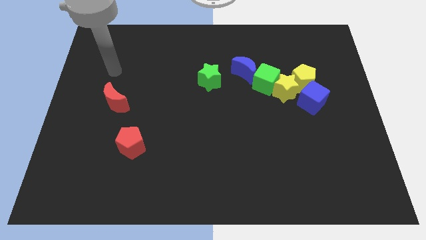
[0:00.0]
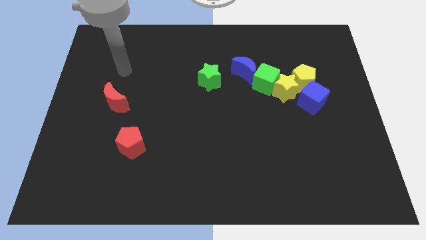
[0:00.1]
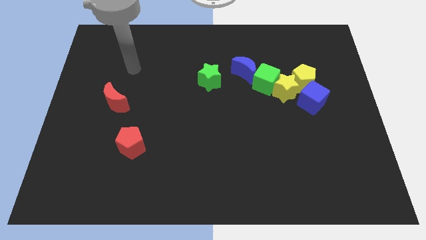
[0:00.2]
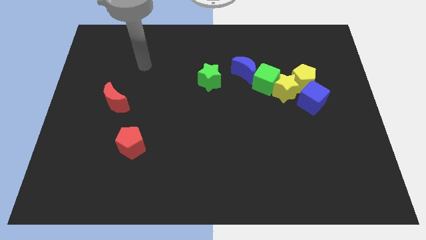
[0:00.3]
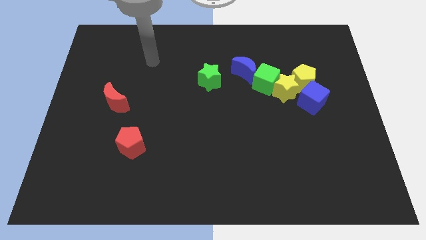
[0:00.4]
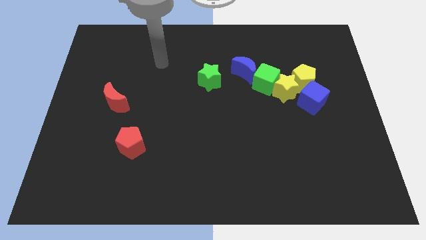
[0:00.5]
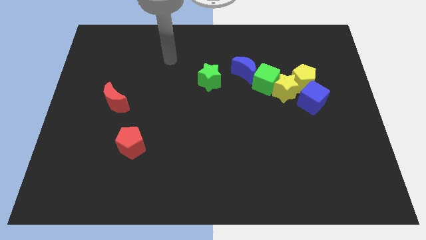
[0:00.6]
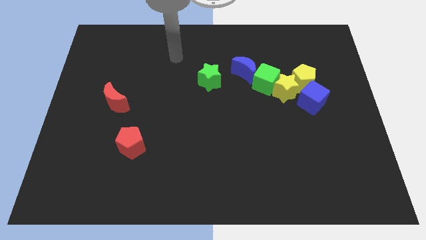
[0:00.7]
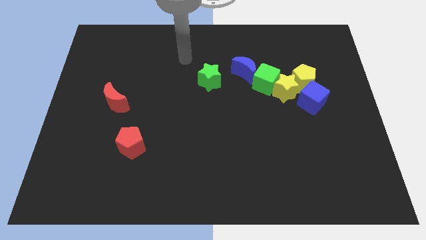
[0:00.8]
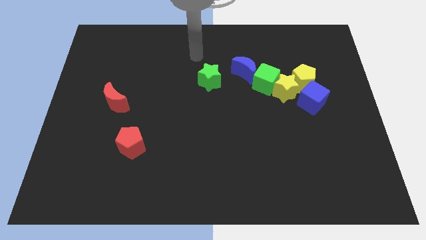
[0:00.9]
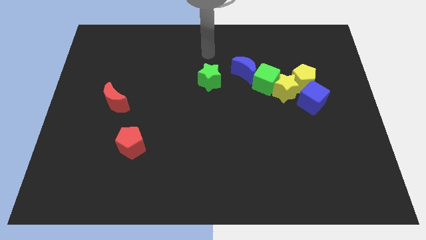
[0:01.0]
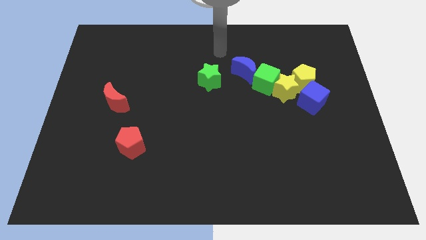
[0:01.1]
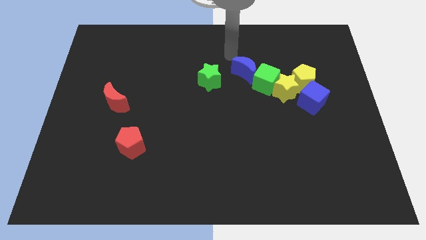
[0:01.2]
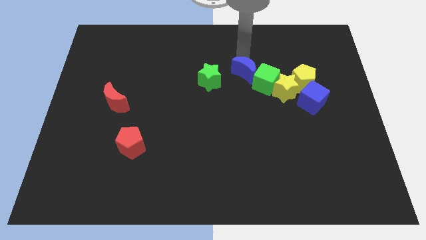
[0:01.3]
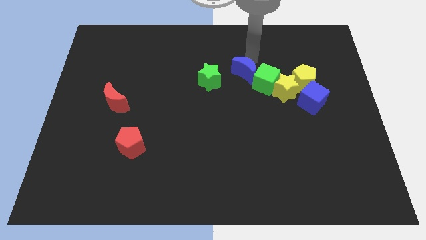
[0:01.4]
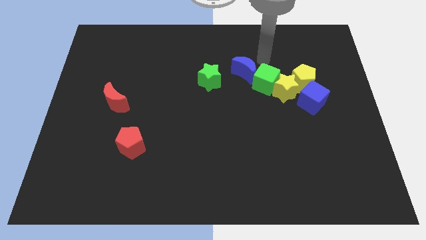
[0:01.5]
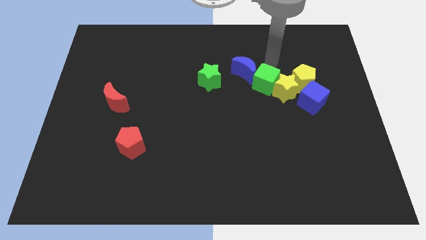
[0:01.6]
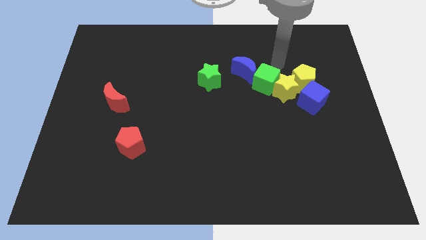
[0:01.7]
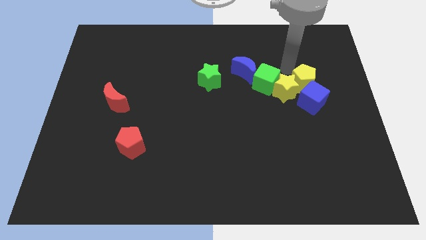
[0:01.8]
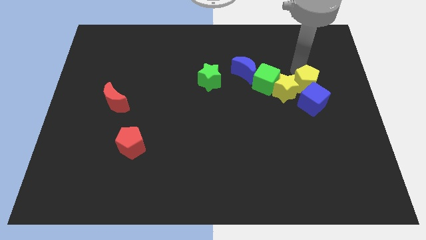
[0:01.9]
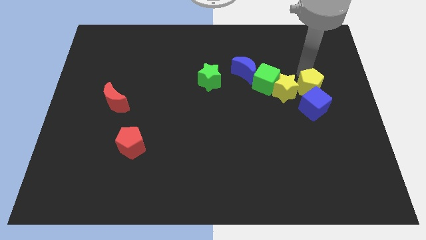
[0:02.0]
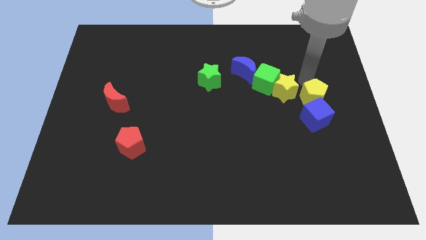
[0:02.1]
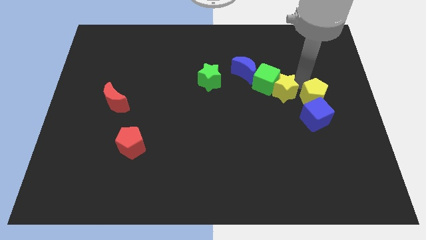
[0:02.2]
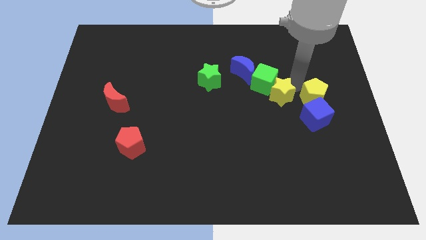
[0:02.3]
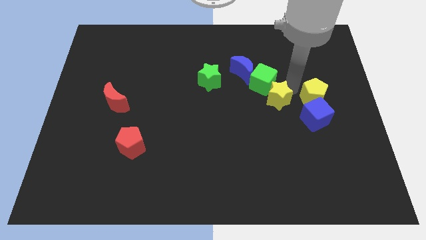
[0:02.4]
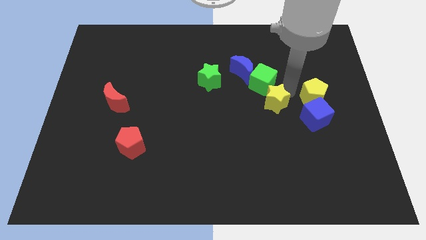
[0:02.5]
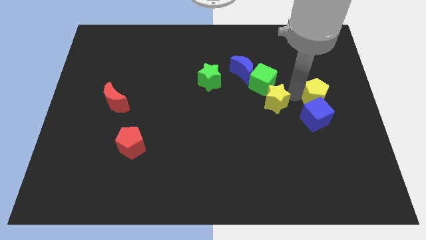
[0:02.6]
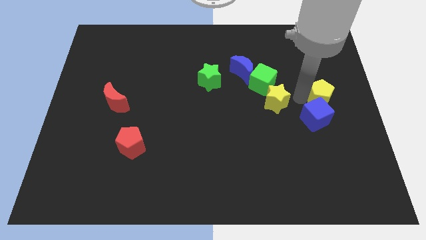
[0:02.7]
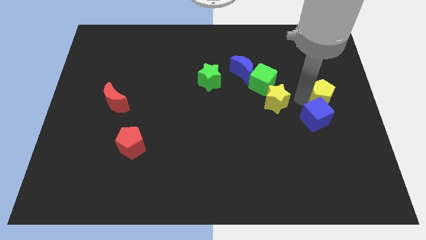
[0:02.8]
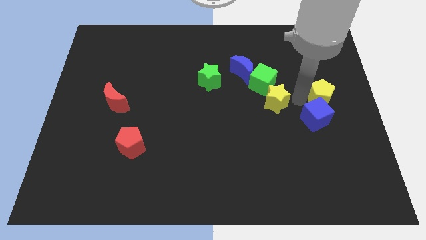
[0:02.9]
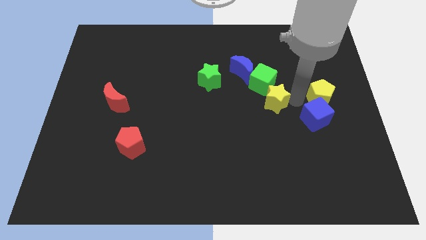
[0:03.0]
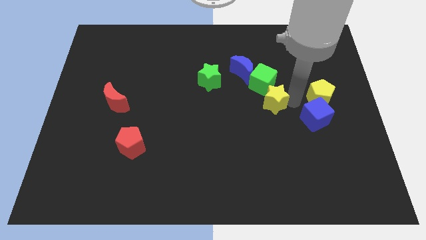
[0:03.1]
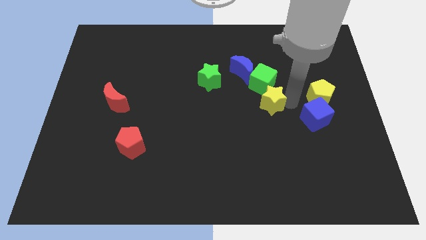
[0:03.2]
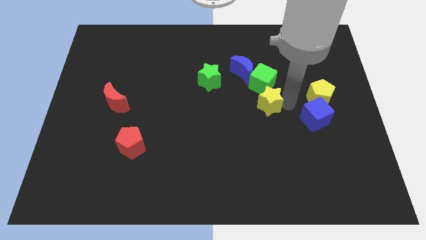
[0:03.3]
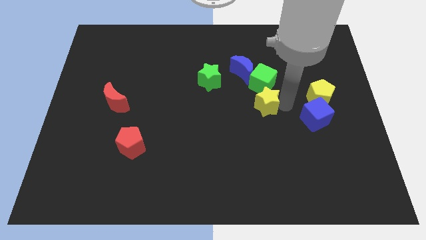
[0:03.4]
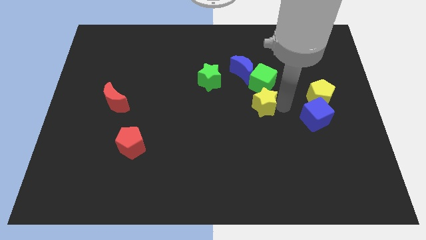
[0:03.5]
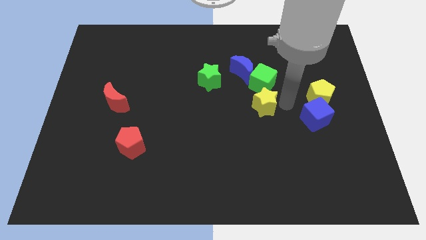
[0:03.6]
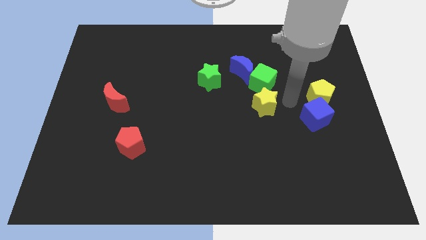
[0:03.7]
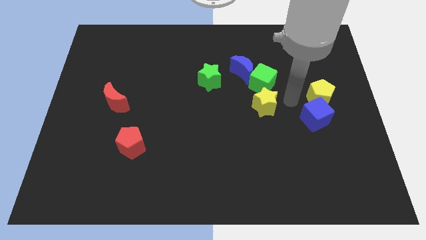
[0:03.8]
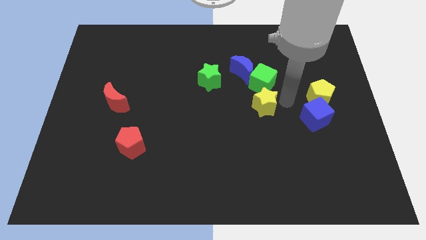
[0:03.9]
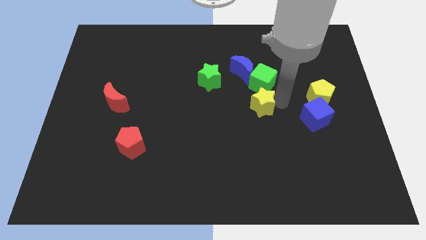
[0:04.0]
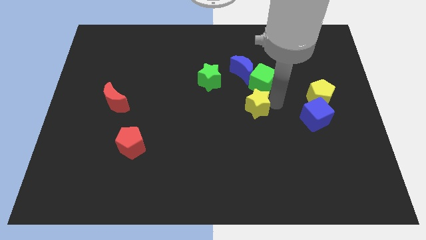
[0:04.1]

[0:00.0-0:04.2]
separate the yellow star from the group of blocks

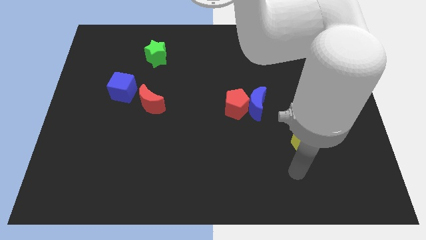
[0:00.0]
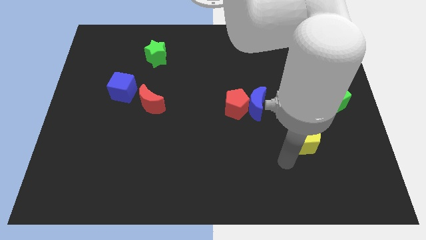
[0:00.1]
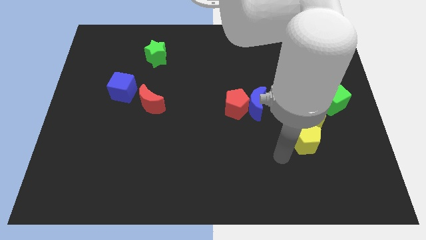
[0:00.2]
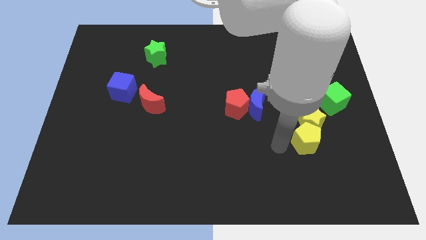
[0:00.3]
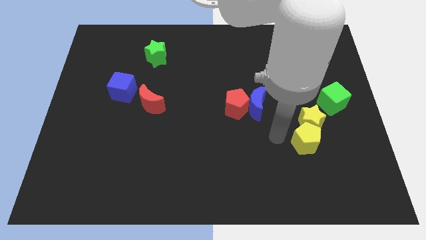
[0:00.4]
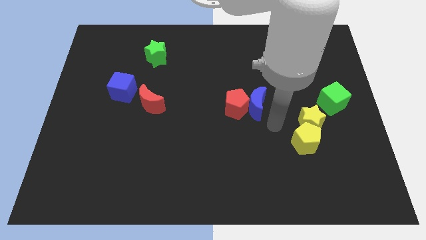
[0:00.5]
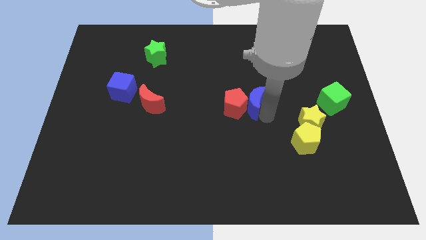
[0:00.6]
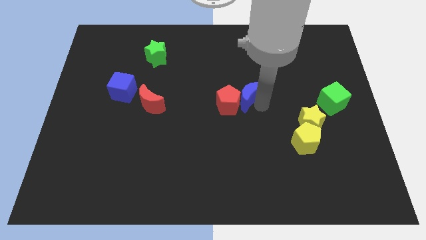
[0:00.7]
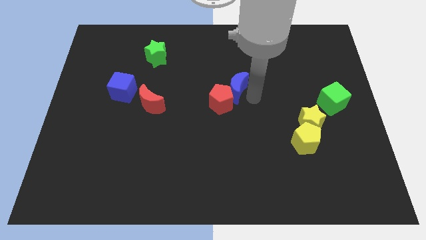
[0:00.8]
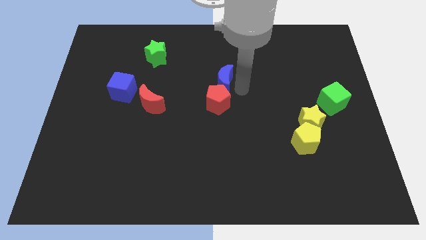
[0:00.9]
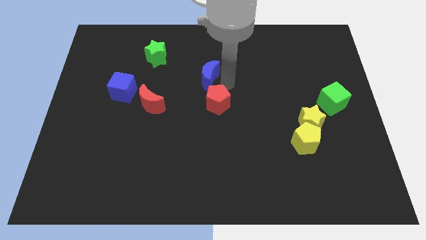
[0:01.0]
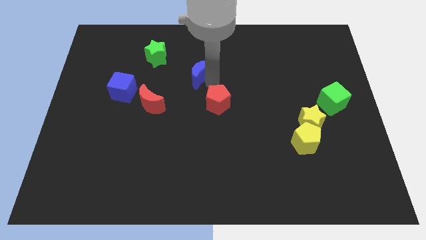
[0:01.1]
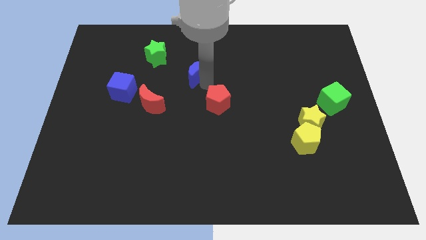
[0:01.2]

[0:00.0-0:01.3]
pull the red pentagon apart from the blue moon

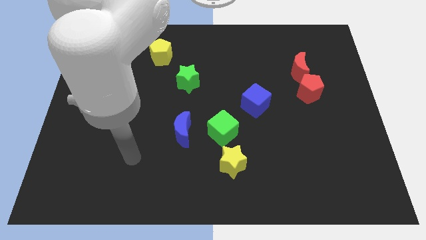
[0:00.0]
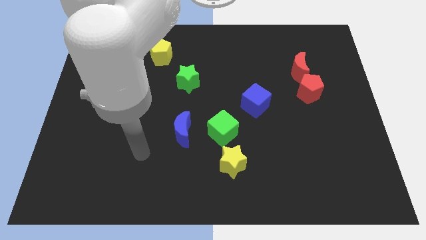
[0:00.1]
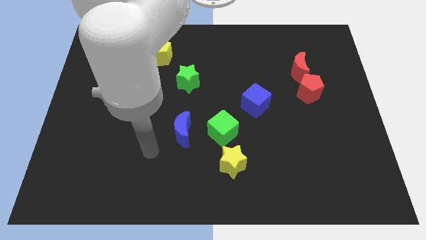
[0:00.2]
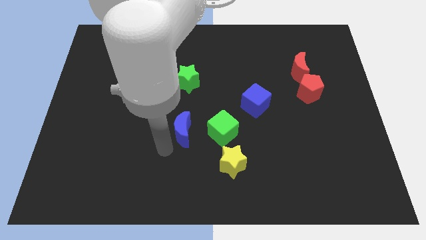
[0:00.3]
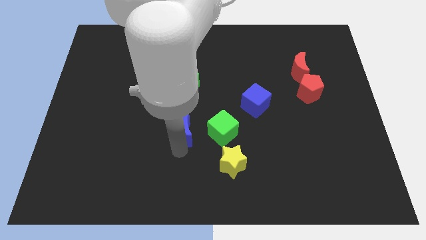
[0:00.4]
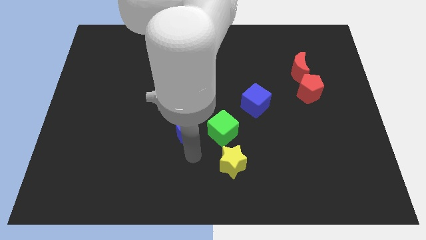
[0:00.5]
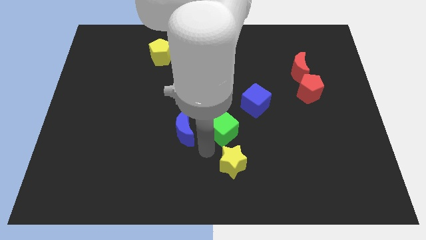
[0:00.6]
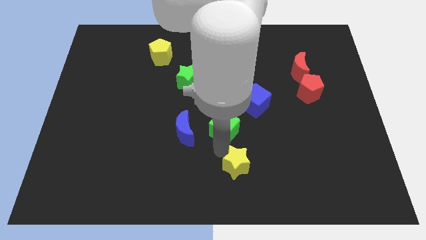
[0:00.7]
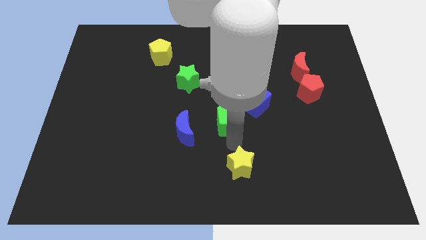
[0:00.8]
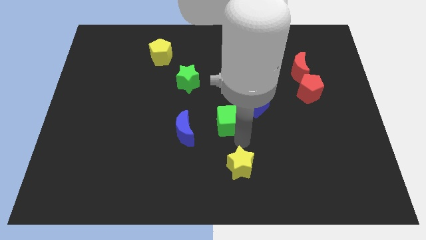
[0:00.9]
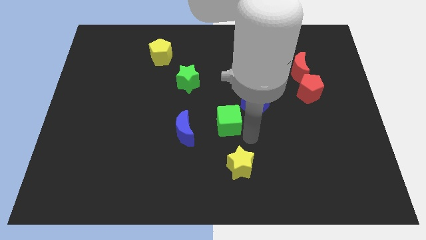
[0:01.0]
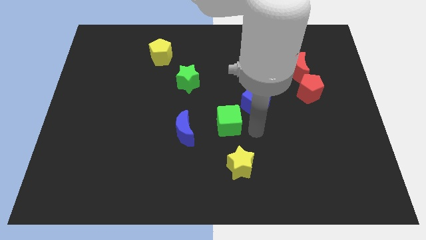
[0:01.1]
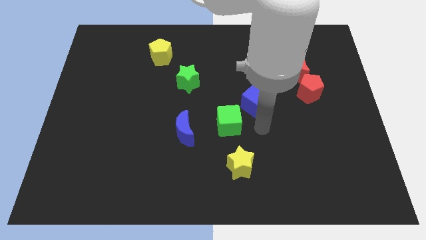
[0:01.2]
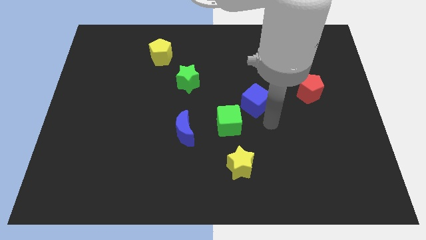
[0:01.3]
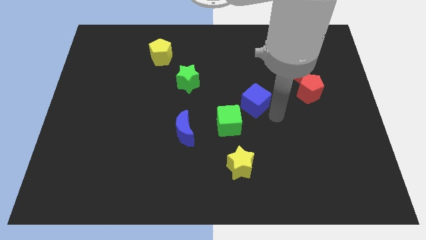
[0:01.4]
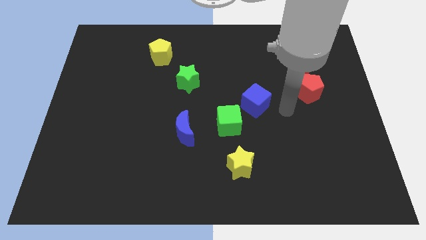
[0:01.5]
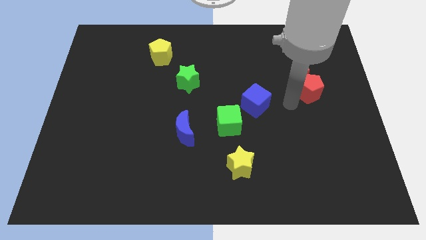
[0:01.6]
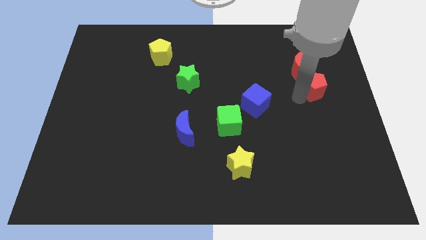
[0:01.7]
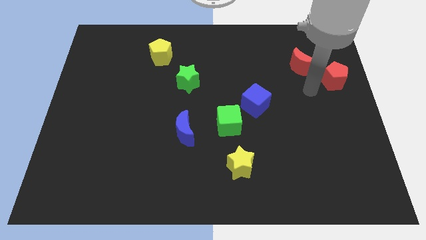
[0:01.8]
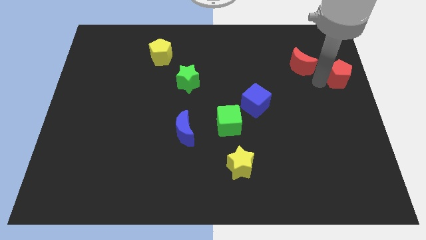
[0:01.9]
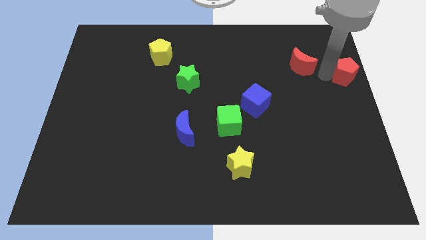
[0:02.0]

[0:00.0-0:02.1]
separate the red moon from the red pentagon

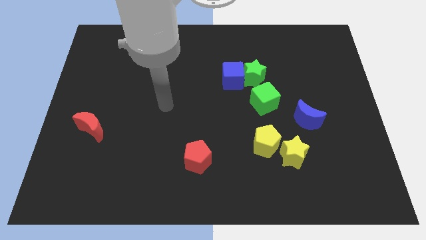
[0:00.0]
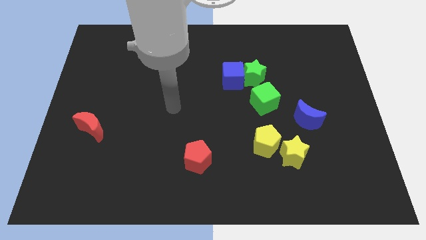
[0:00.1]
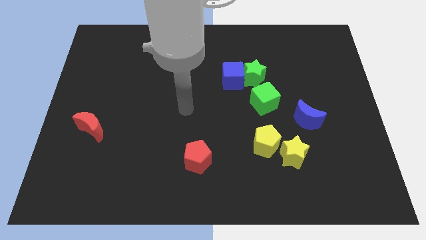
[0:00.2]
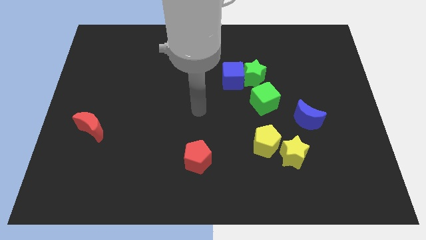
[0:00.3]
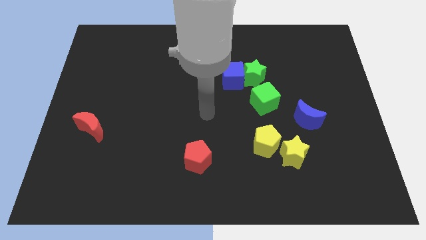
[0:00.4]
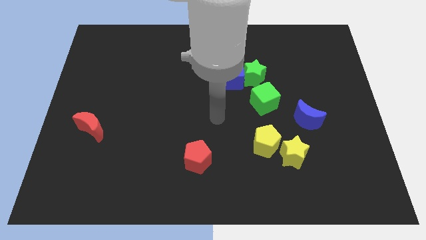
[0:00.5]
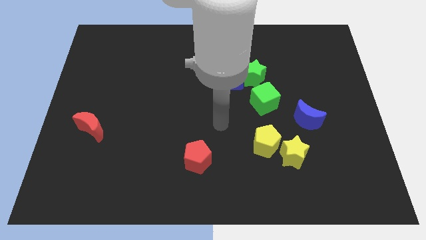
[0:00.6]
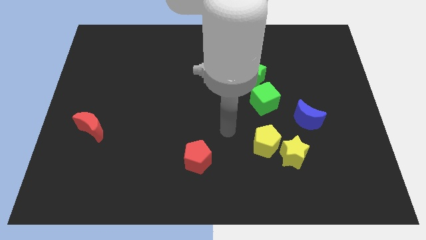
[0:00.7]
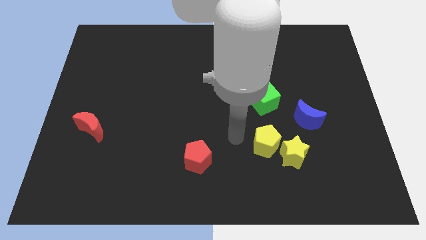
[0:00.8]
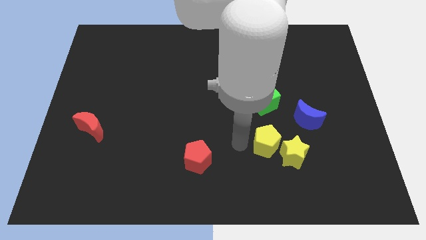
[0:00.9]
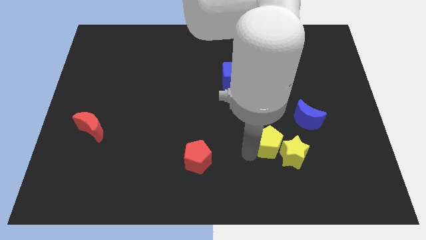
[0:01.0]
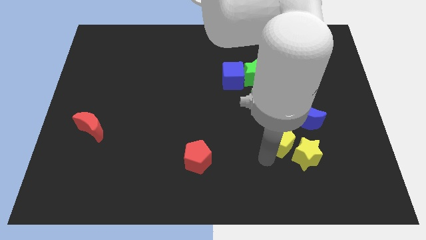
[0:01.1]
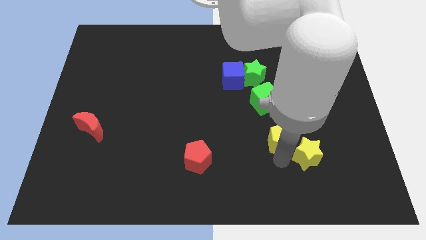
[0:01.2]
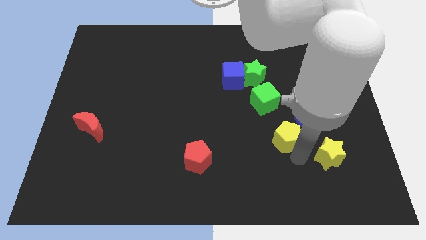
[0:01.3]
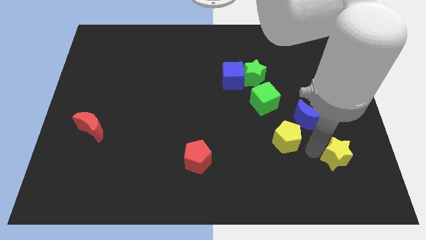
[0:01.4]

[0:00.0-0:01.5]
pull the yellow pentagon apart from the yellow star

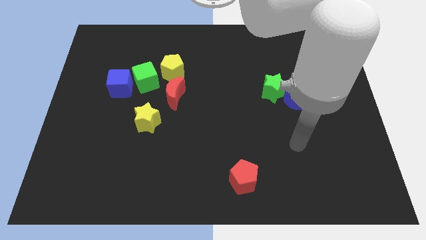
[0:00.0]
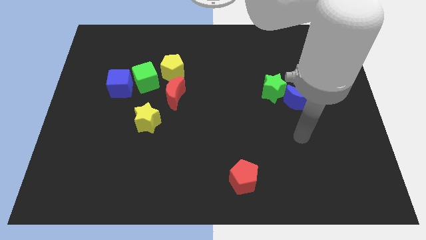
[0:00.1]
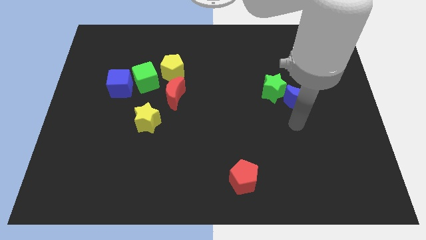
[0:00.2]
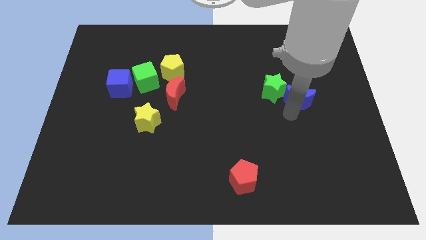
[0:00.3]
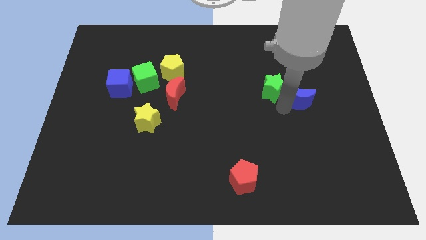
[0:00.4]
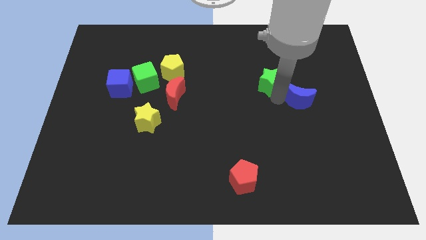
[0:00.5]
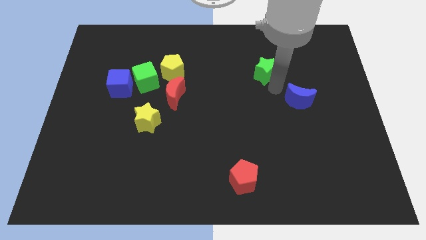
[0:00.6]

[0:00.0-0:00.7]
move the blue moon away from the green star
